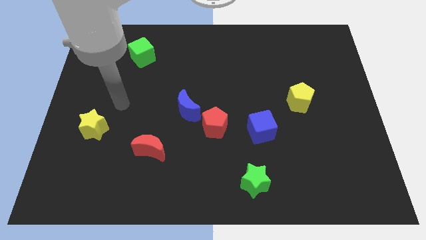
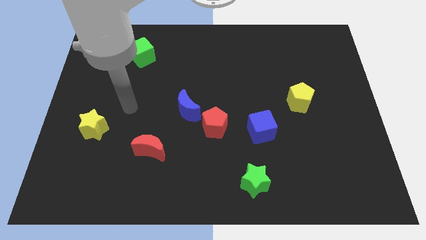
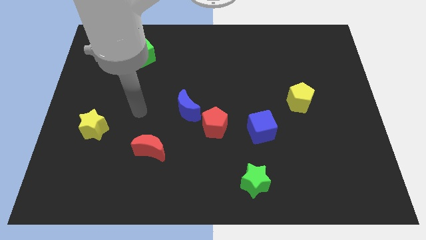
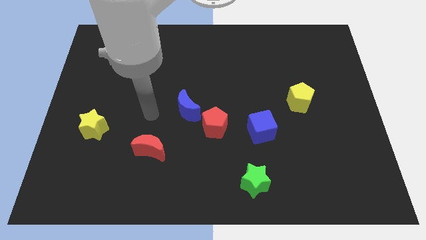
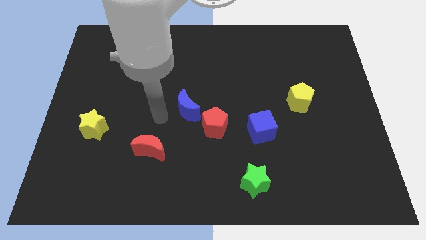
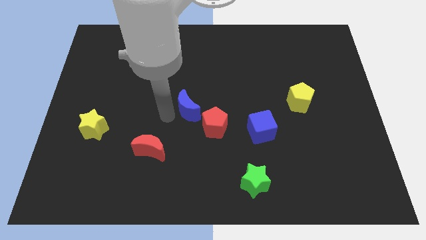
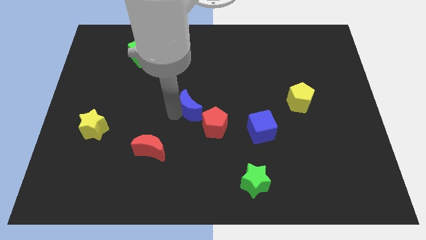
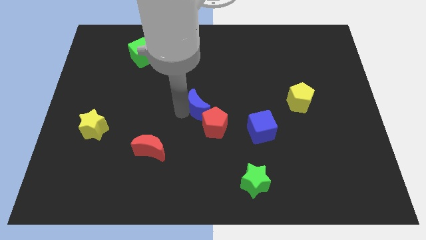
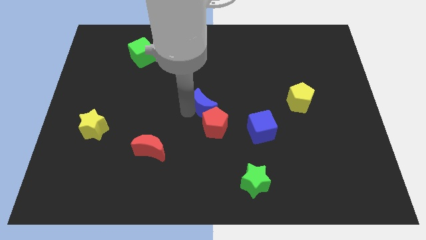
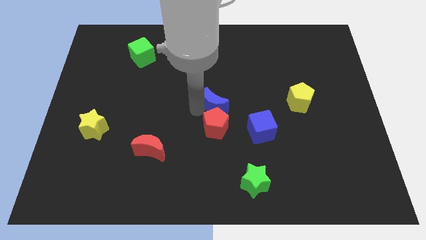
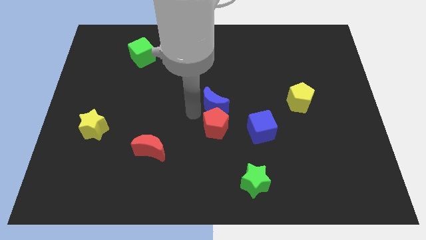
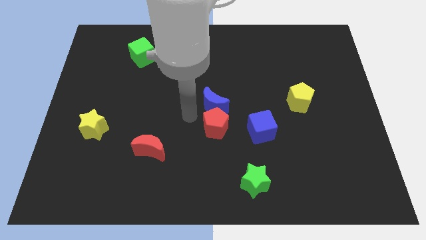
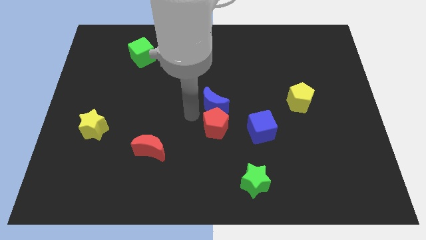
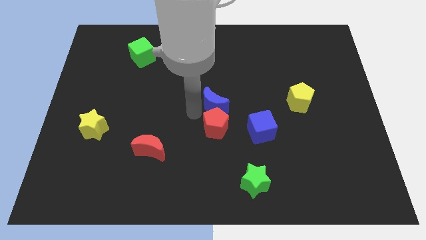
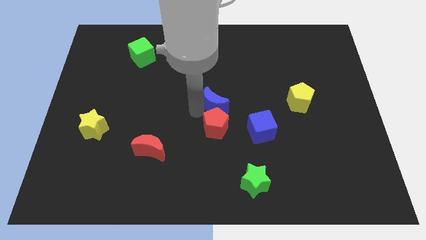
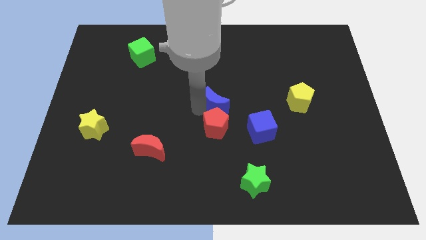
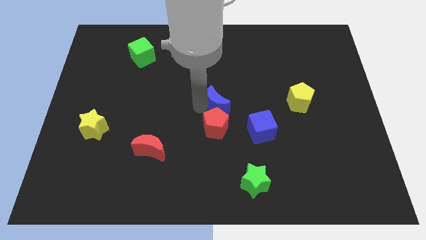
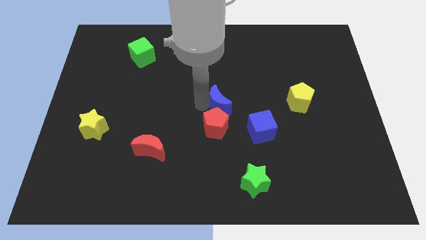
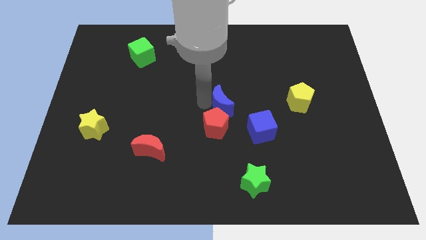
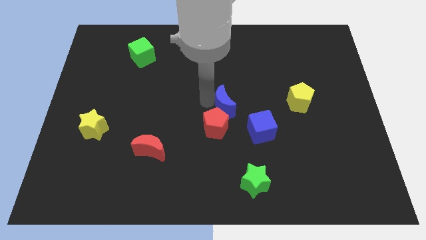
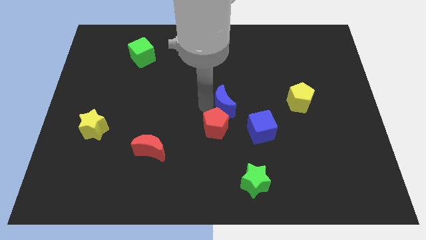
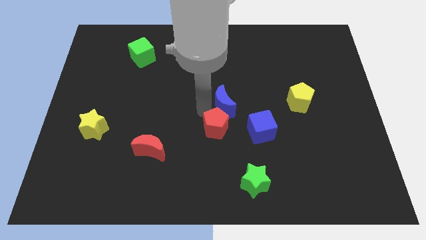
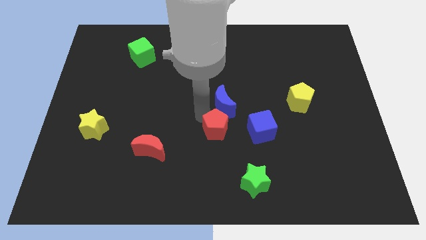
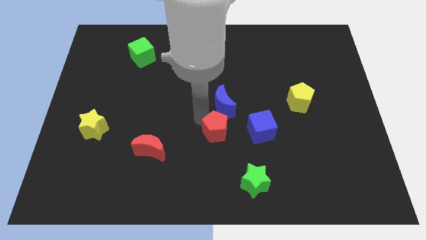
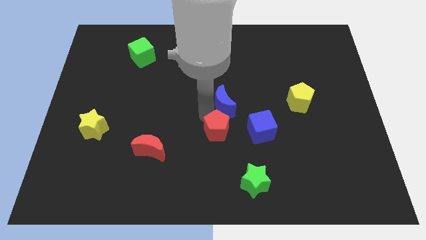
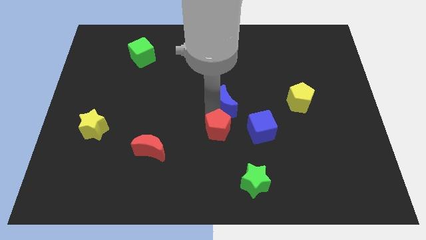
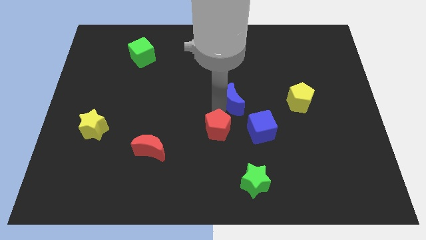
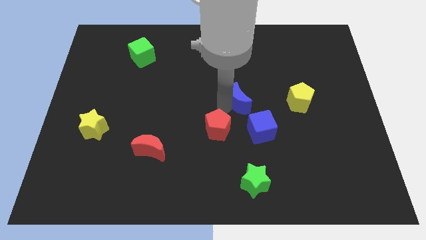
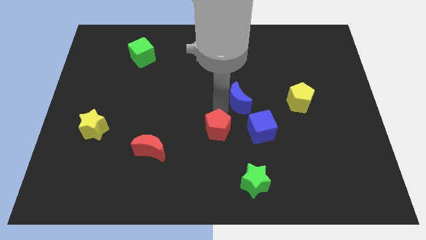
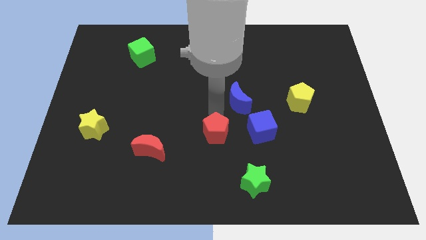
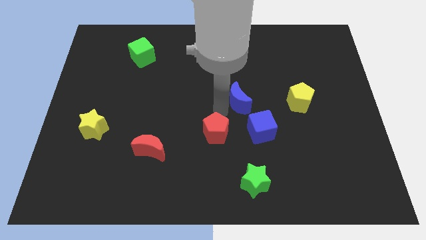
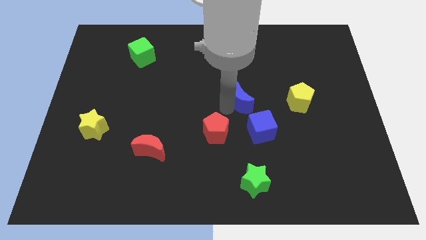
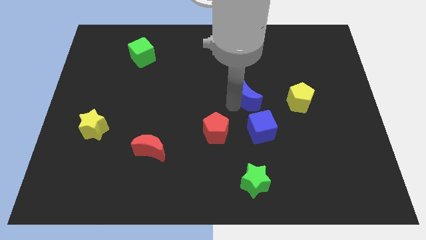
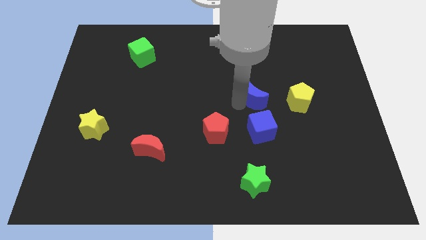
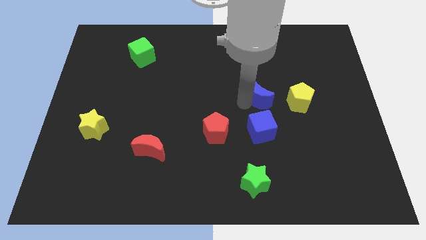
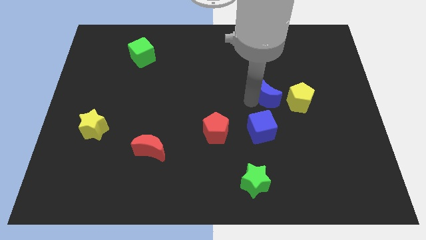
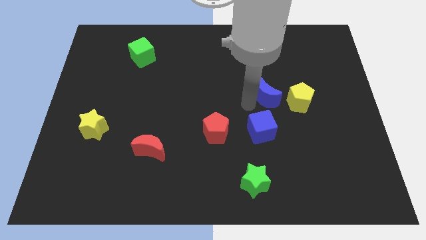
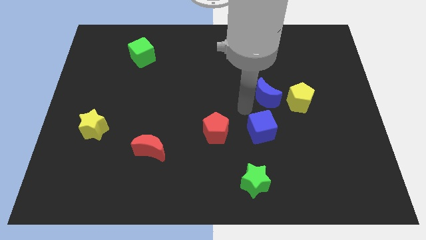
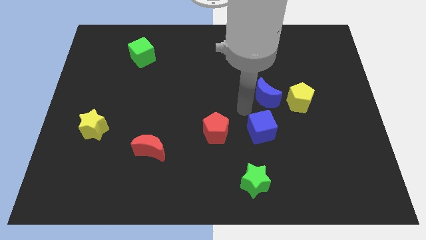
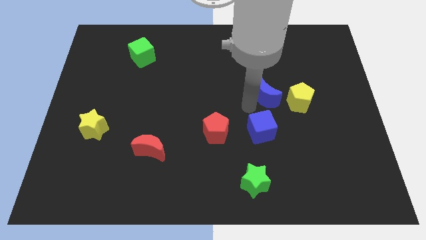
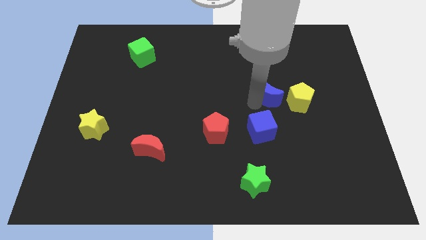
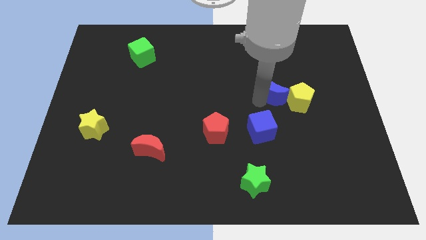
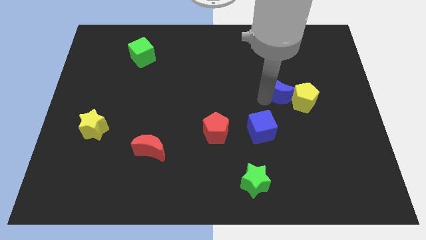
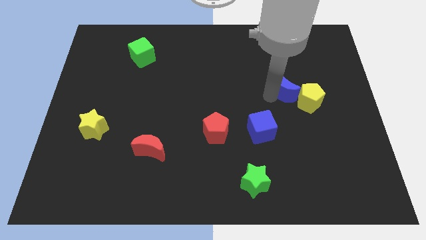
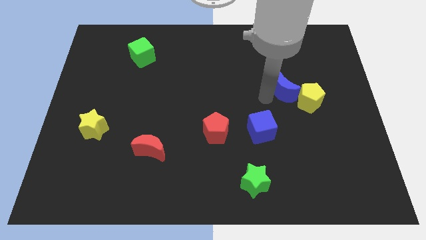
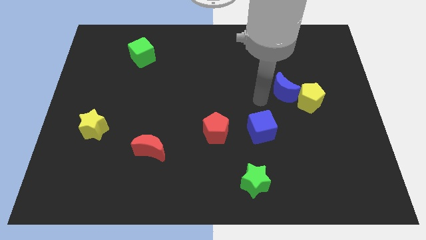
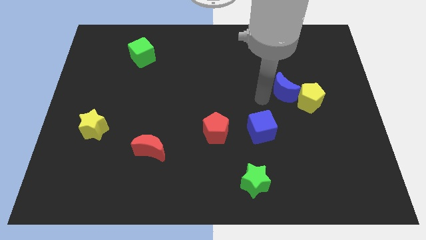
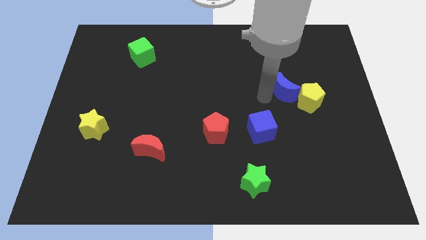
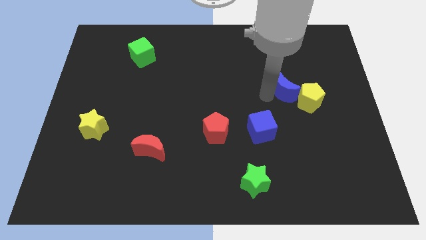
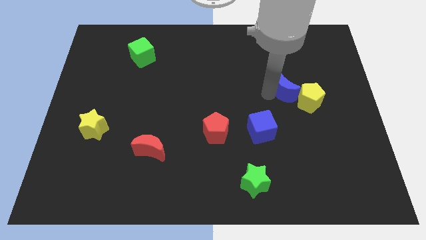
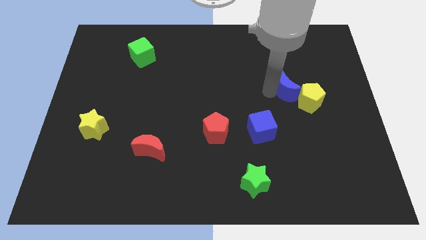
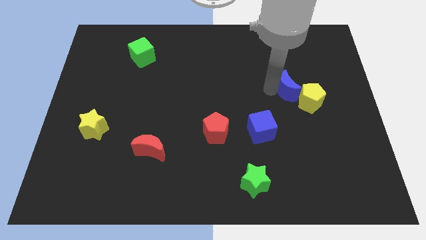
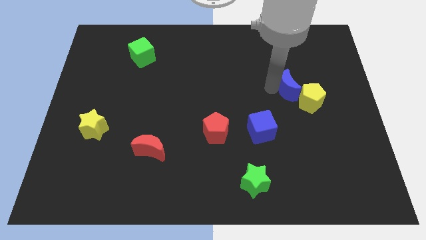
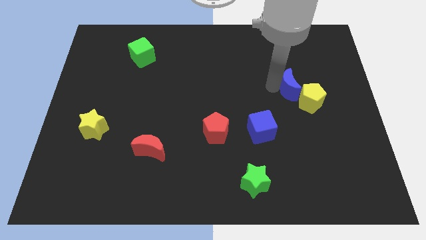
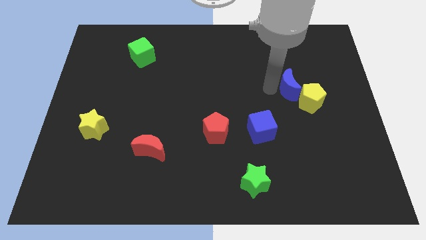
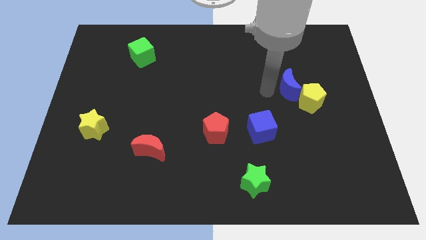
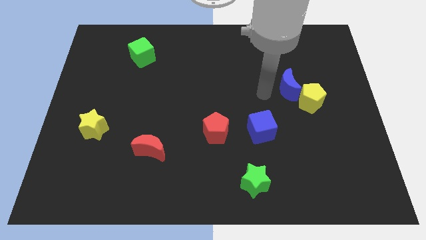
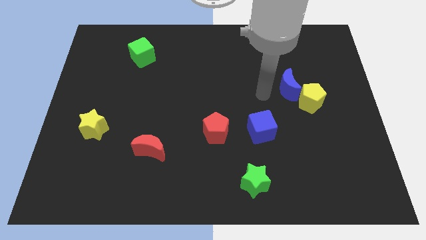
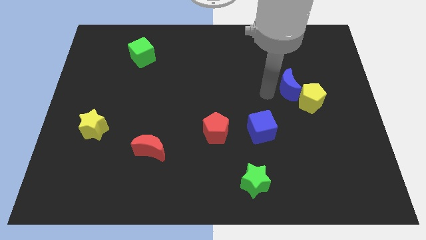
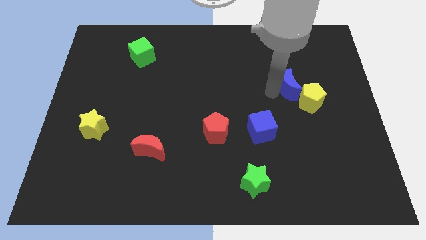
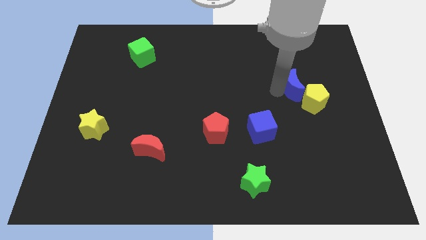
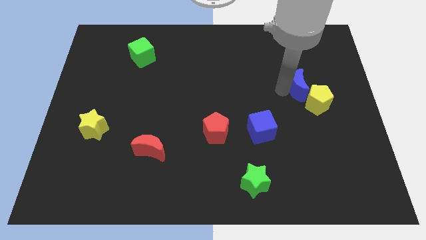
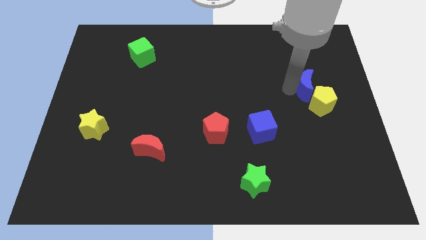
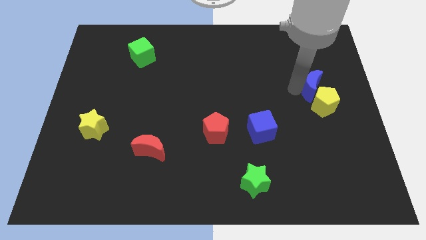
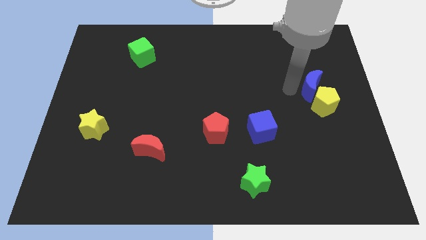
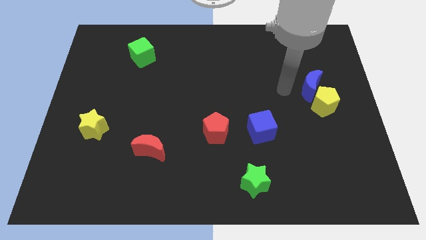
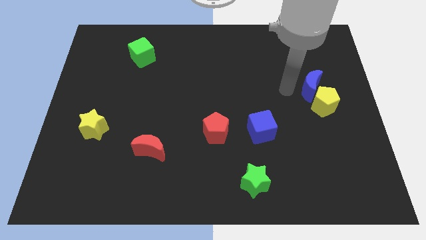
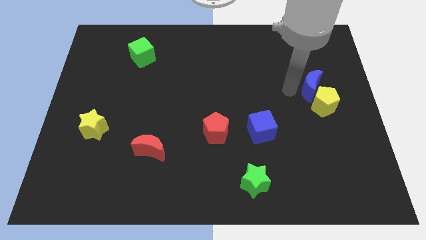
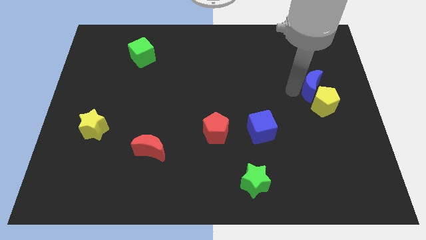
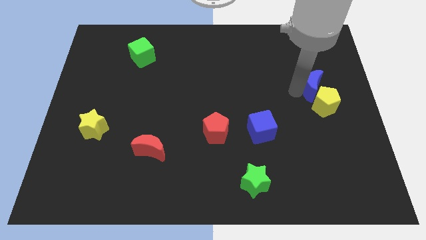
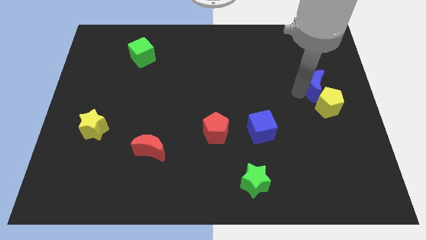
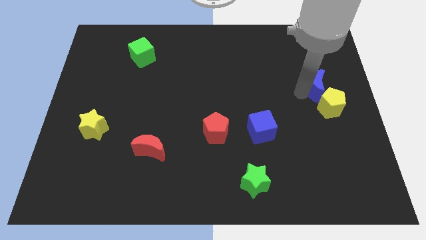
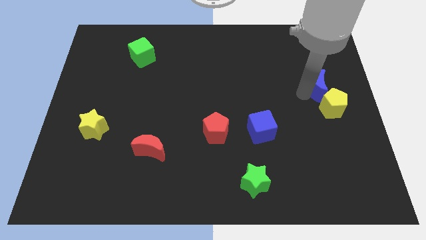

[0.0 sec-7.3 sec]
push the blue moon to the center right
